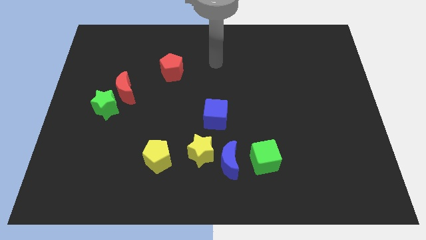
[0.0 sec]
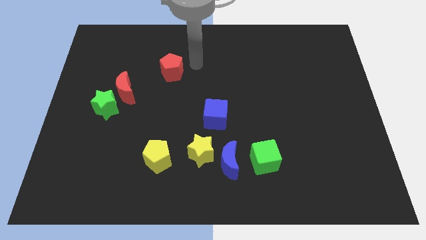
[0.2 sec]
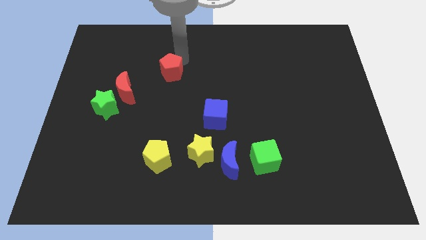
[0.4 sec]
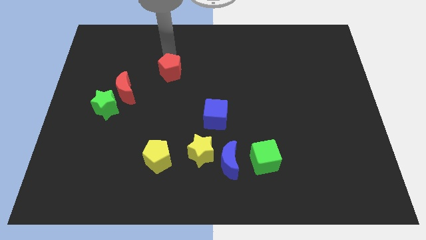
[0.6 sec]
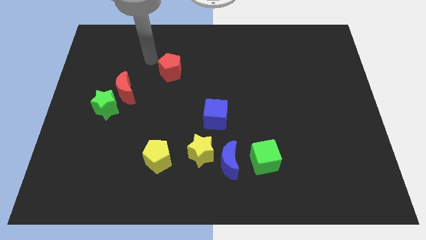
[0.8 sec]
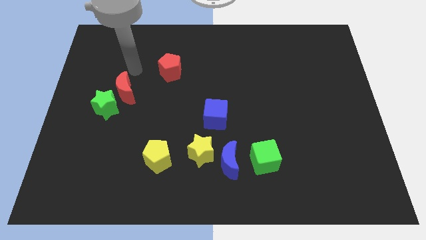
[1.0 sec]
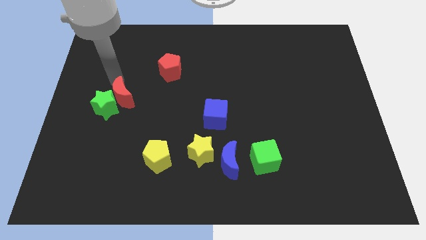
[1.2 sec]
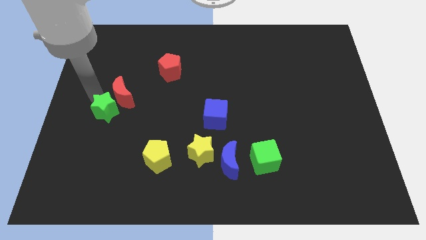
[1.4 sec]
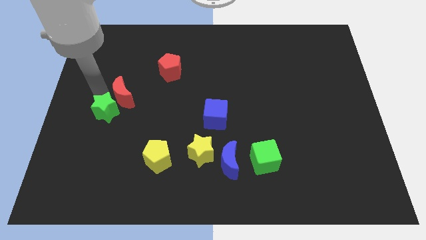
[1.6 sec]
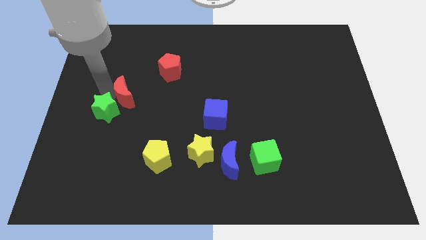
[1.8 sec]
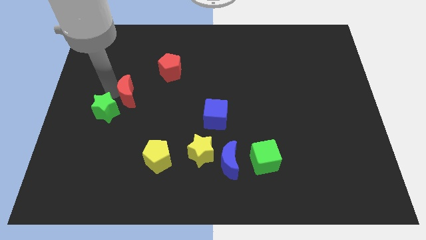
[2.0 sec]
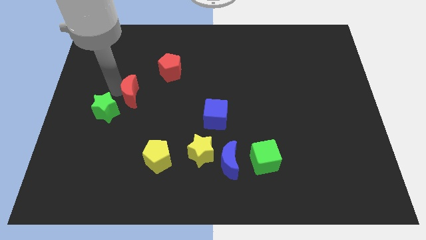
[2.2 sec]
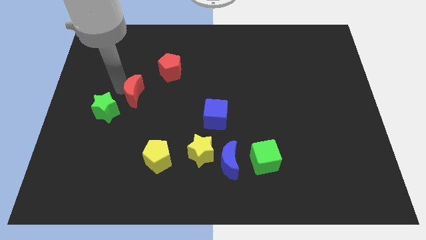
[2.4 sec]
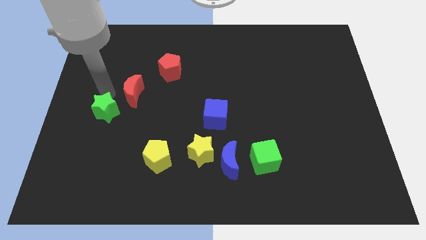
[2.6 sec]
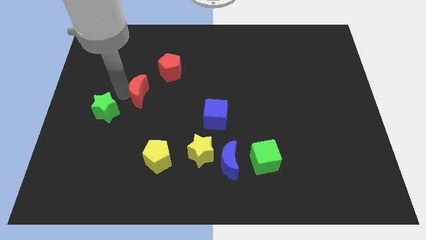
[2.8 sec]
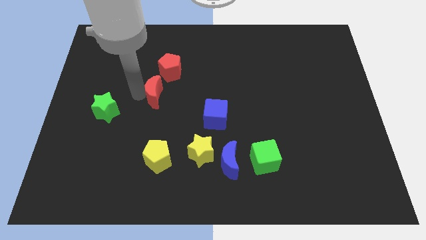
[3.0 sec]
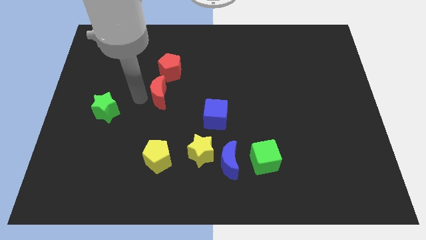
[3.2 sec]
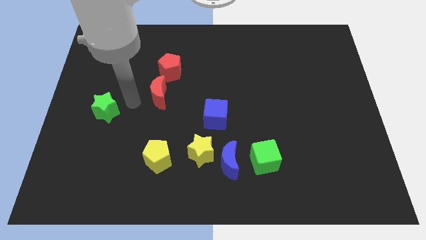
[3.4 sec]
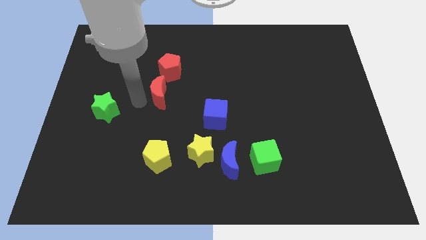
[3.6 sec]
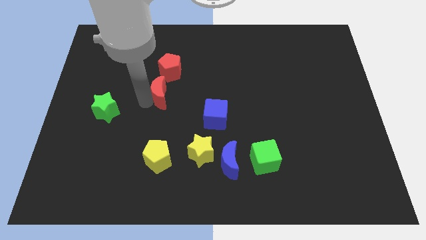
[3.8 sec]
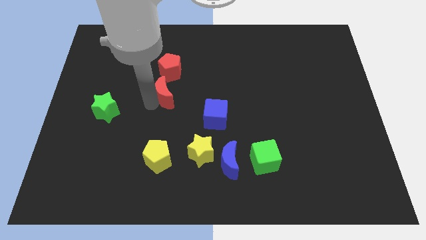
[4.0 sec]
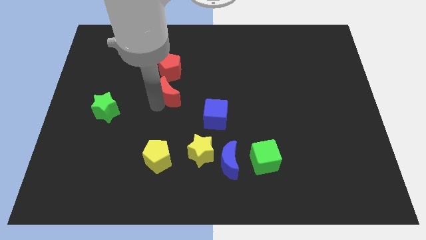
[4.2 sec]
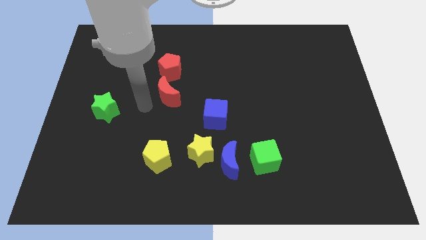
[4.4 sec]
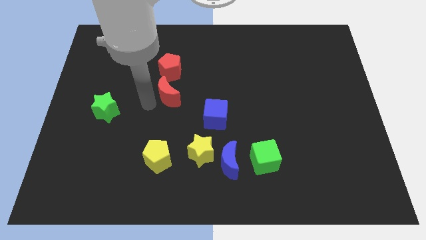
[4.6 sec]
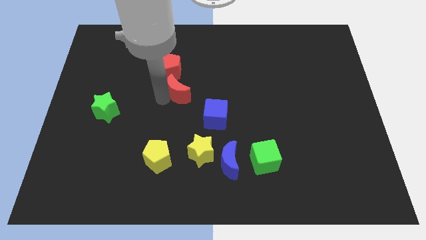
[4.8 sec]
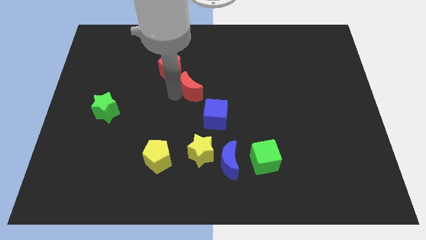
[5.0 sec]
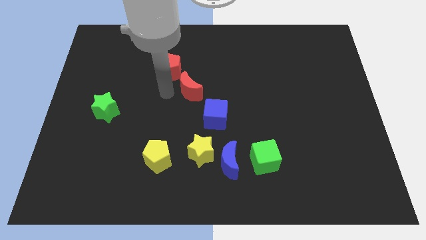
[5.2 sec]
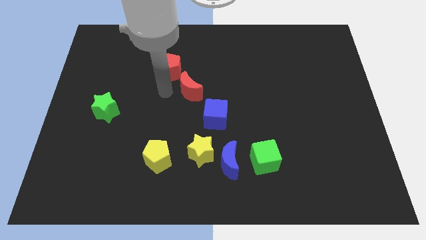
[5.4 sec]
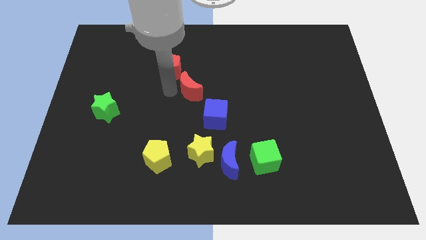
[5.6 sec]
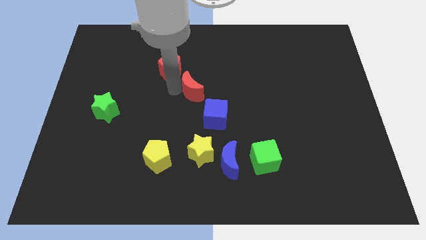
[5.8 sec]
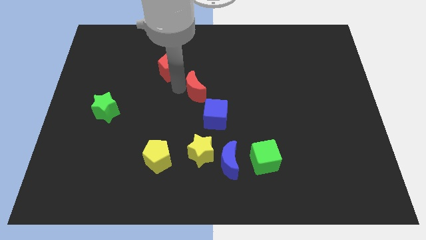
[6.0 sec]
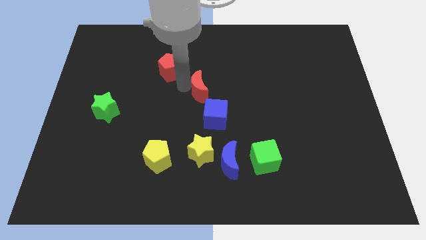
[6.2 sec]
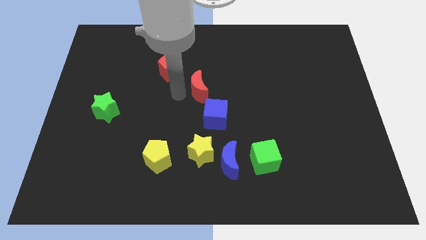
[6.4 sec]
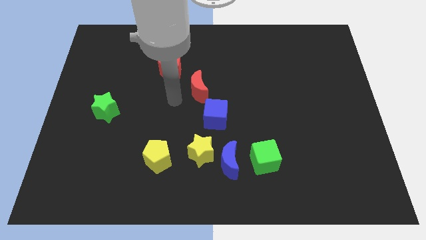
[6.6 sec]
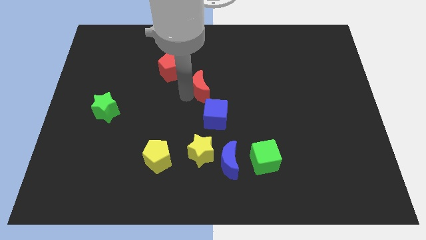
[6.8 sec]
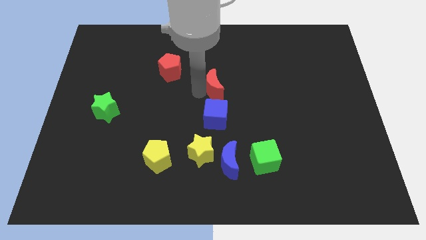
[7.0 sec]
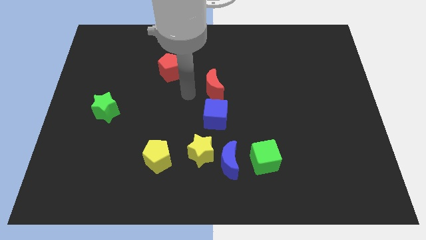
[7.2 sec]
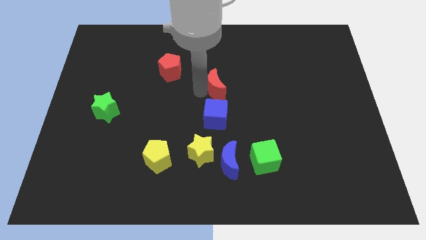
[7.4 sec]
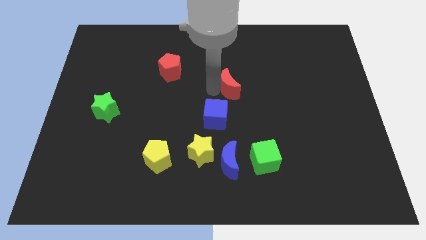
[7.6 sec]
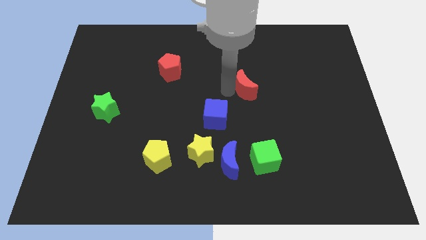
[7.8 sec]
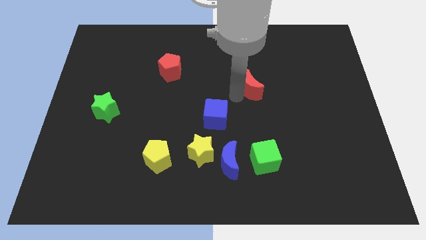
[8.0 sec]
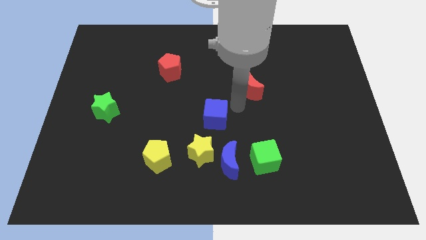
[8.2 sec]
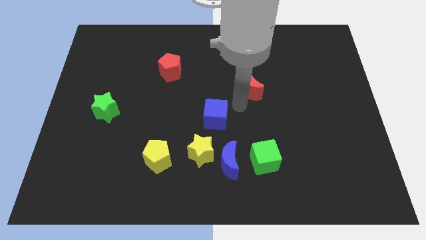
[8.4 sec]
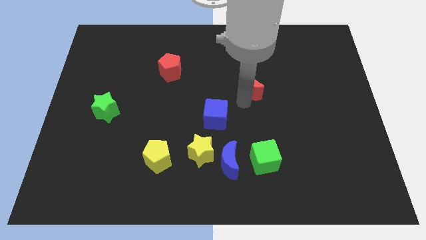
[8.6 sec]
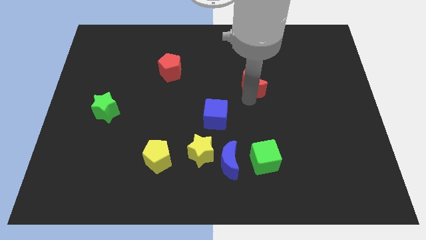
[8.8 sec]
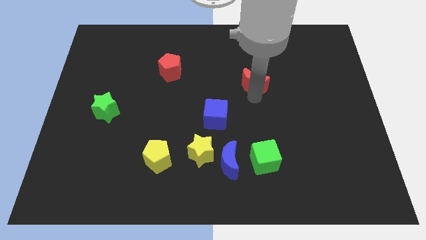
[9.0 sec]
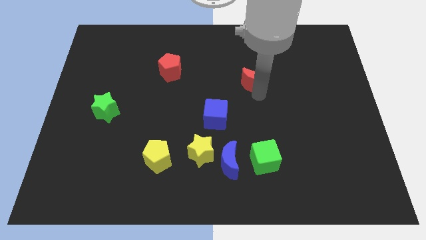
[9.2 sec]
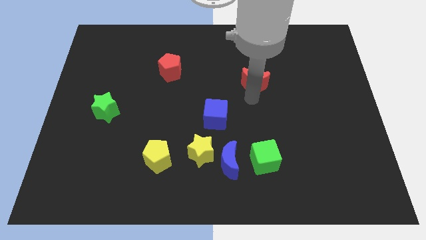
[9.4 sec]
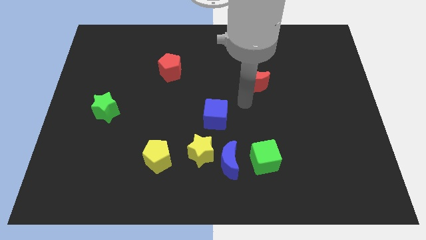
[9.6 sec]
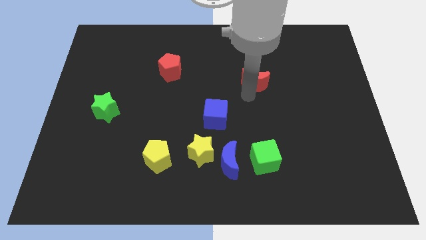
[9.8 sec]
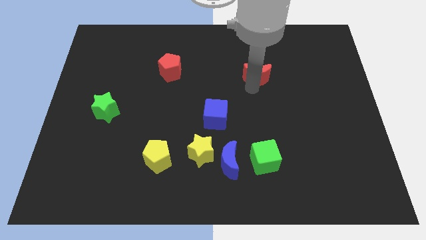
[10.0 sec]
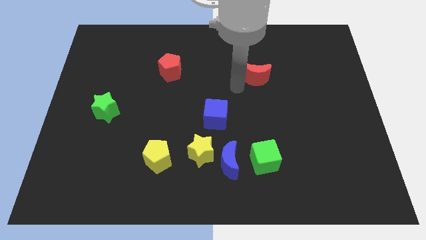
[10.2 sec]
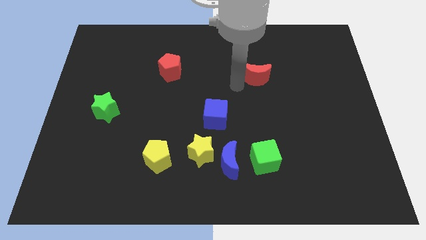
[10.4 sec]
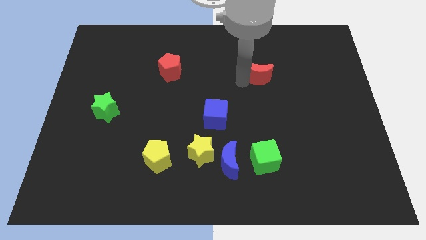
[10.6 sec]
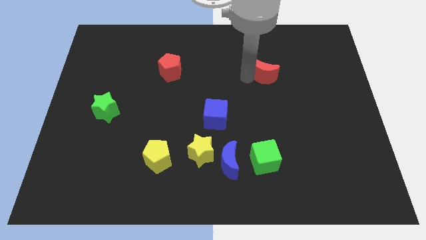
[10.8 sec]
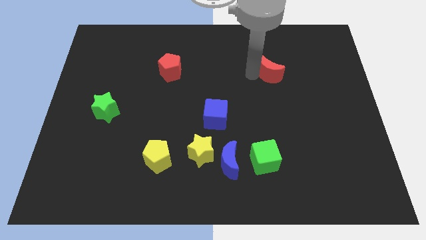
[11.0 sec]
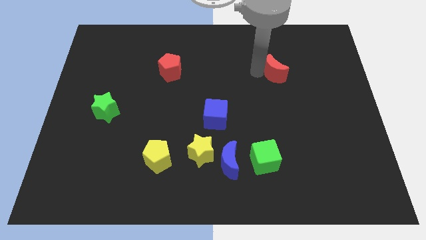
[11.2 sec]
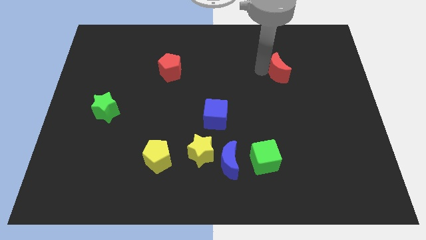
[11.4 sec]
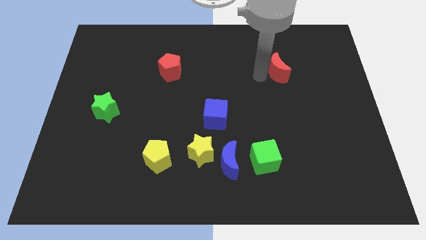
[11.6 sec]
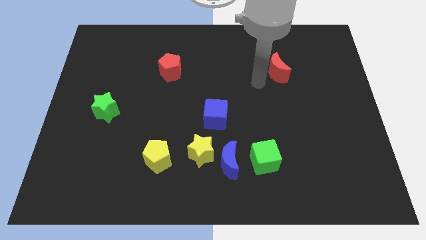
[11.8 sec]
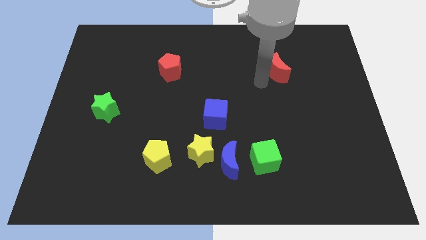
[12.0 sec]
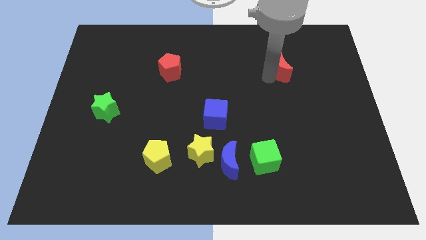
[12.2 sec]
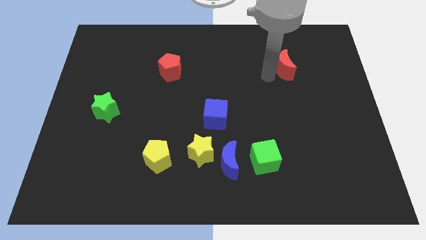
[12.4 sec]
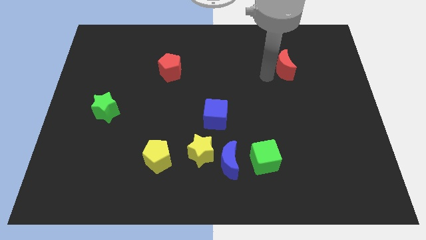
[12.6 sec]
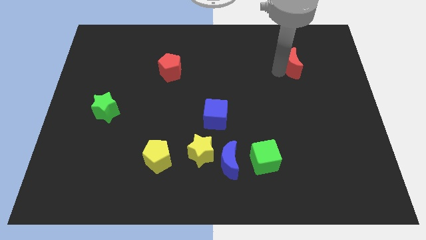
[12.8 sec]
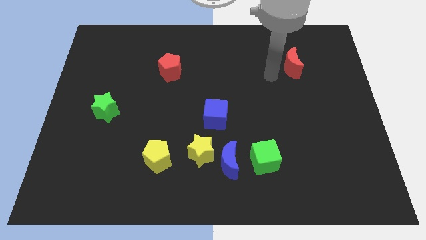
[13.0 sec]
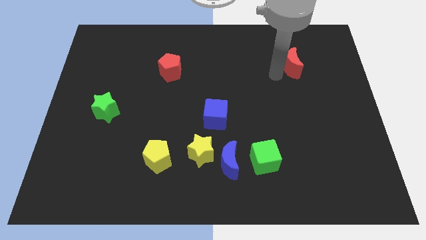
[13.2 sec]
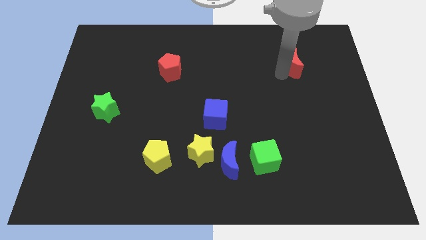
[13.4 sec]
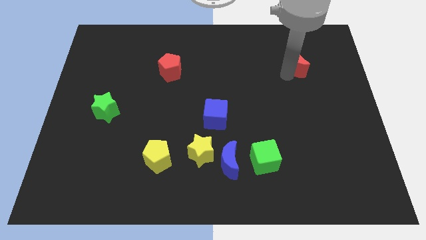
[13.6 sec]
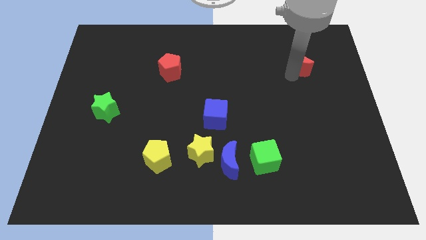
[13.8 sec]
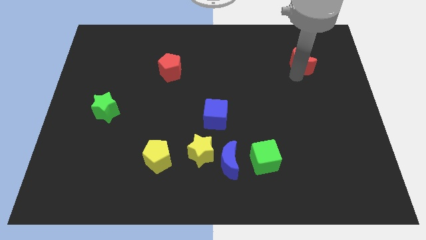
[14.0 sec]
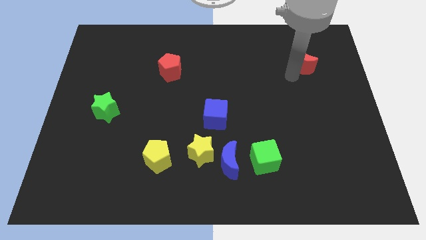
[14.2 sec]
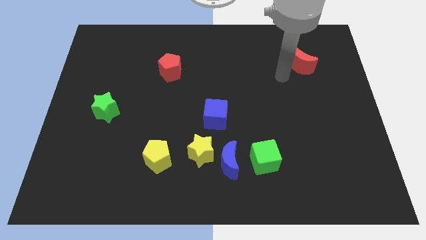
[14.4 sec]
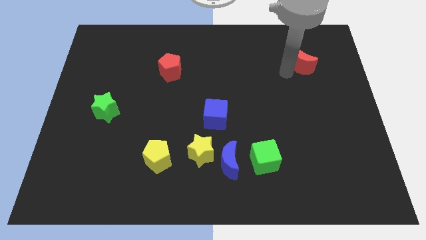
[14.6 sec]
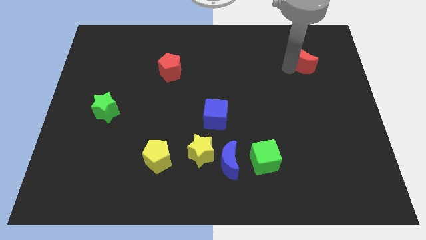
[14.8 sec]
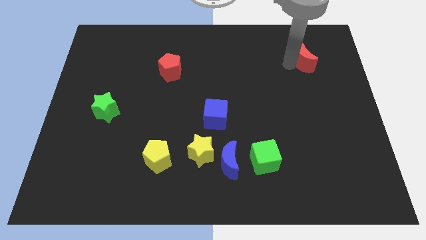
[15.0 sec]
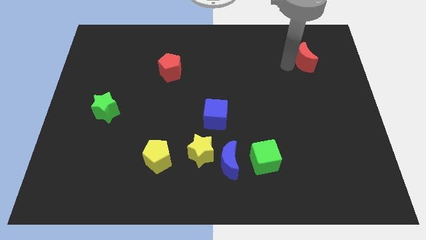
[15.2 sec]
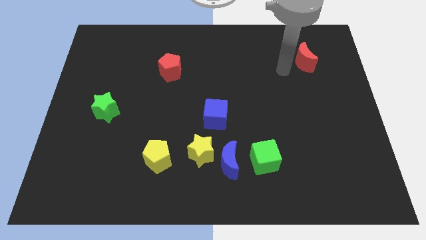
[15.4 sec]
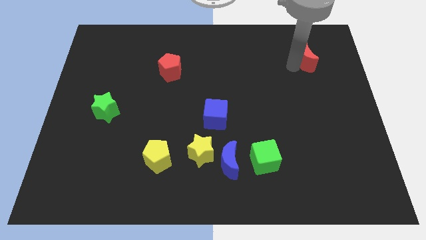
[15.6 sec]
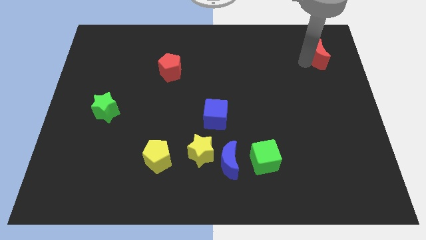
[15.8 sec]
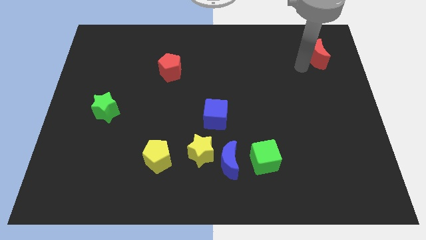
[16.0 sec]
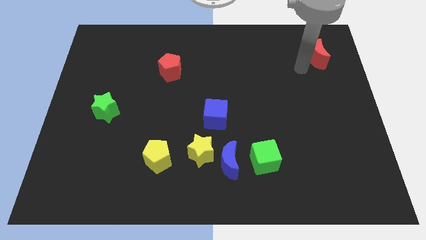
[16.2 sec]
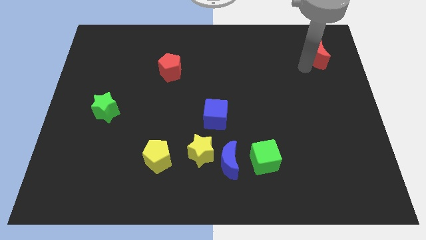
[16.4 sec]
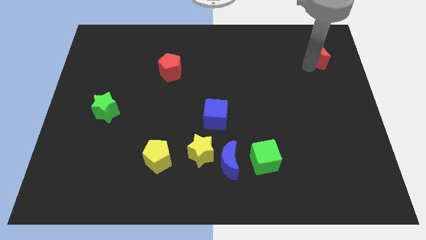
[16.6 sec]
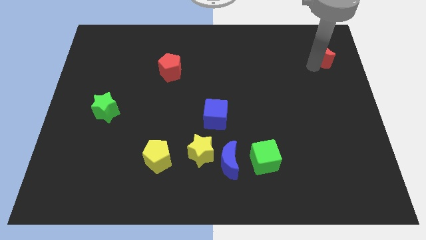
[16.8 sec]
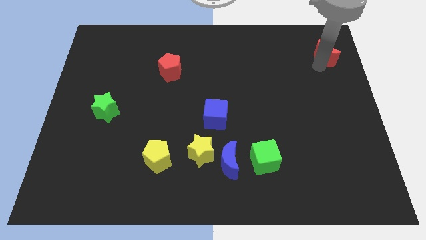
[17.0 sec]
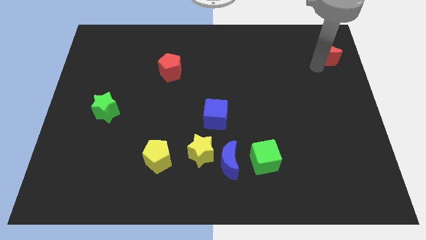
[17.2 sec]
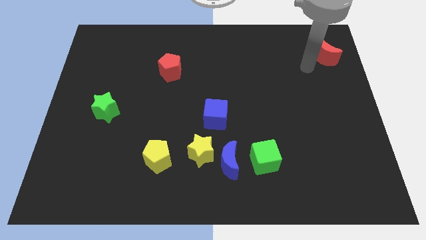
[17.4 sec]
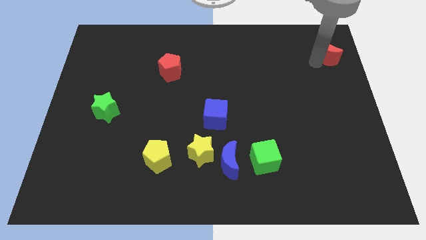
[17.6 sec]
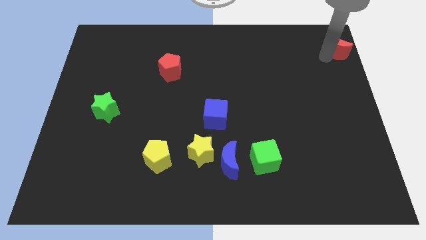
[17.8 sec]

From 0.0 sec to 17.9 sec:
slide the red moon to the top right corner
